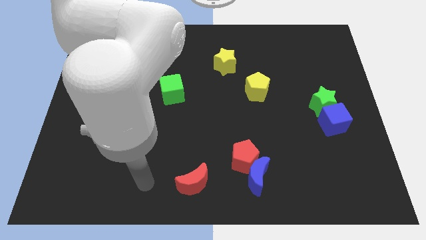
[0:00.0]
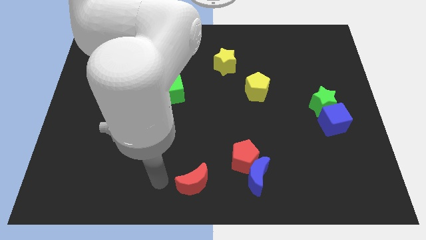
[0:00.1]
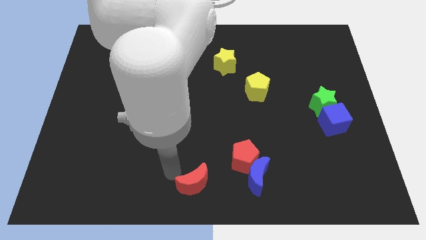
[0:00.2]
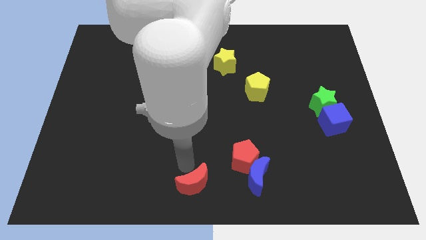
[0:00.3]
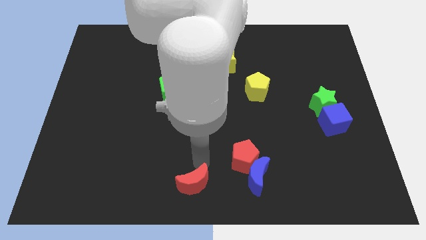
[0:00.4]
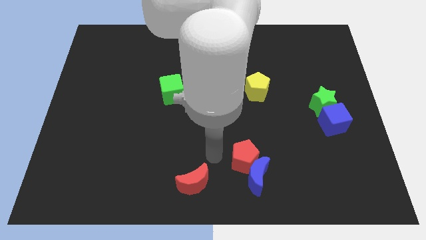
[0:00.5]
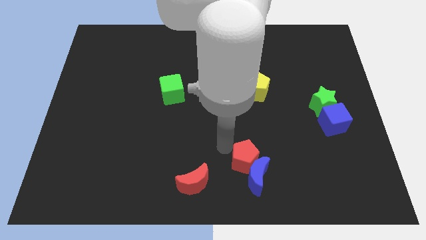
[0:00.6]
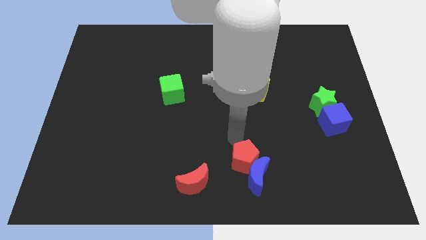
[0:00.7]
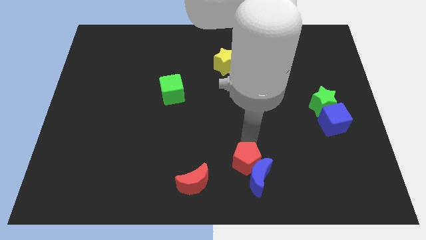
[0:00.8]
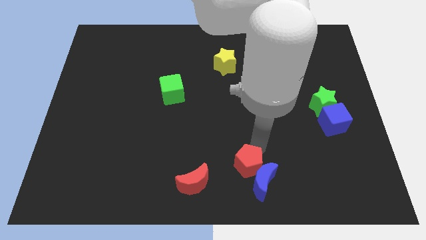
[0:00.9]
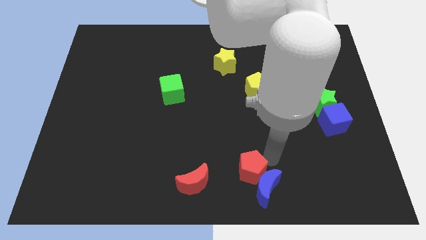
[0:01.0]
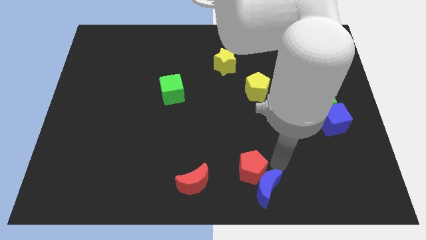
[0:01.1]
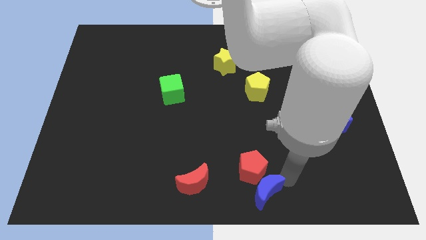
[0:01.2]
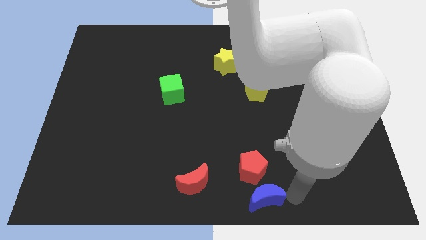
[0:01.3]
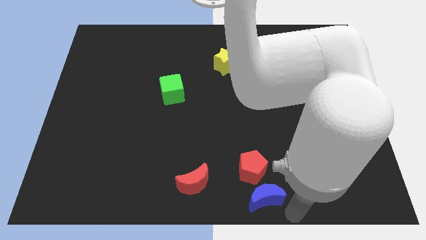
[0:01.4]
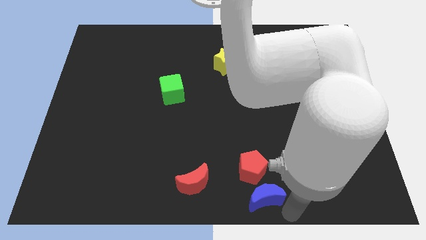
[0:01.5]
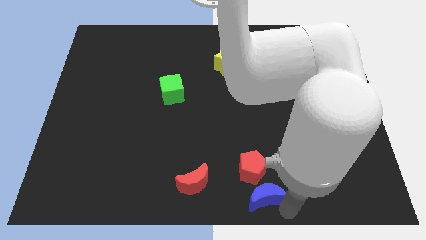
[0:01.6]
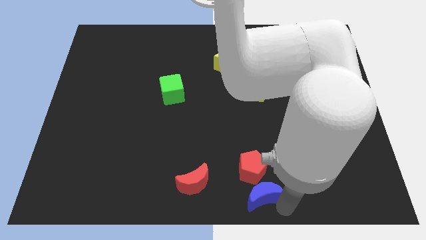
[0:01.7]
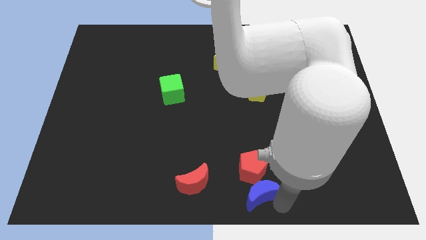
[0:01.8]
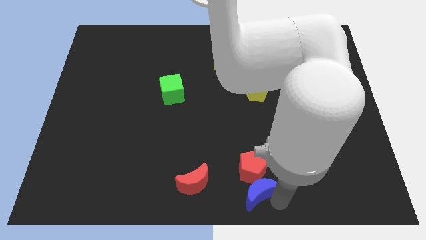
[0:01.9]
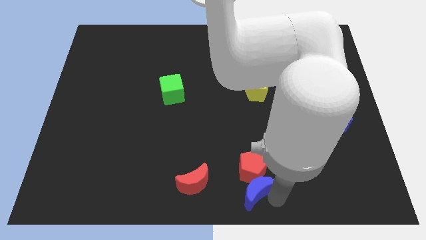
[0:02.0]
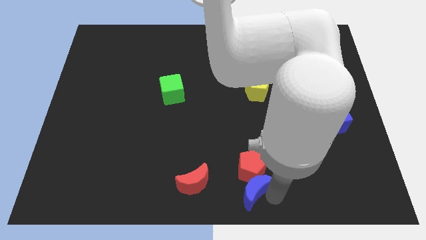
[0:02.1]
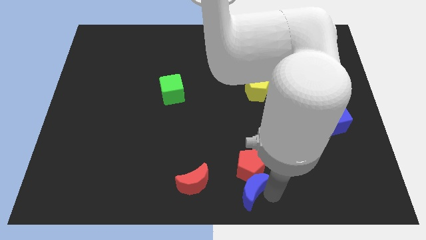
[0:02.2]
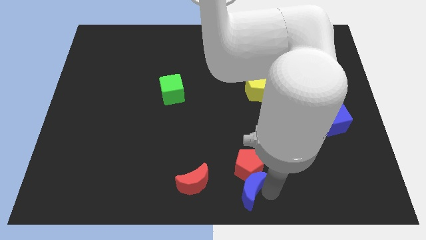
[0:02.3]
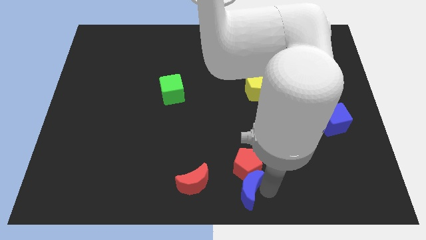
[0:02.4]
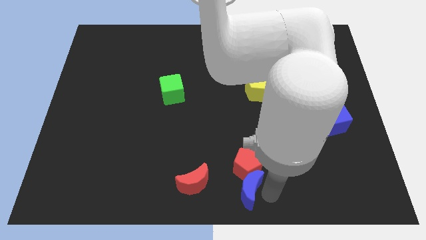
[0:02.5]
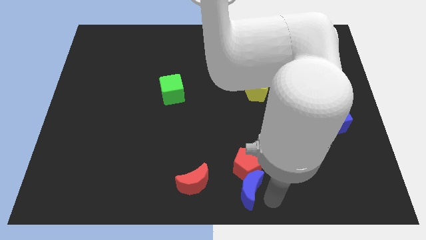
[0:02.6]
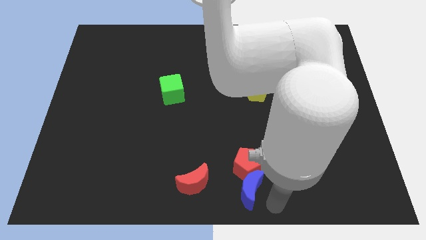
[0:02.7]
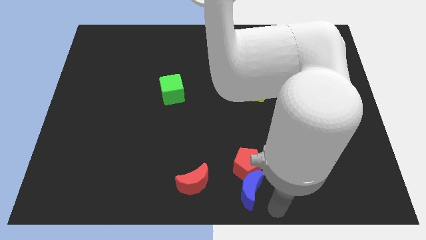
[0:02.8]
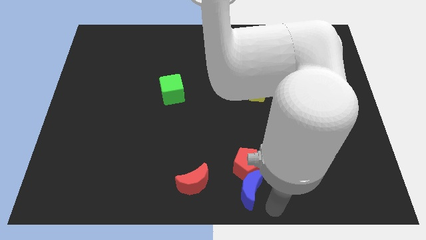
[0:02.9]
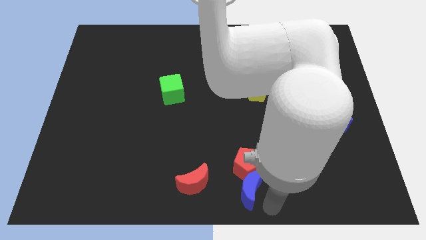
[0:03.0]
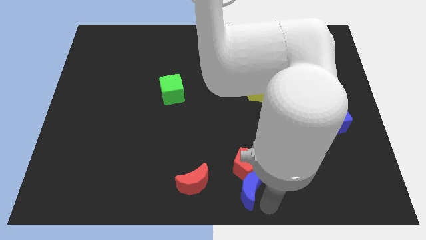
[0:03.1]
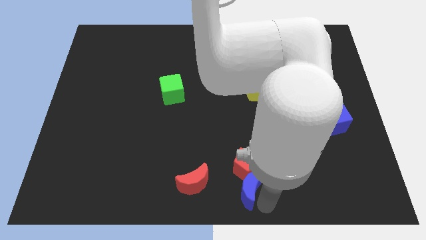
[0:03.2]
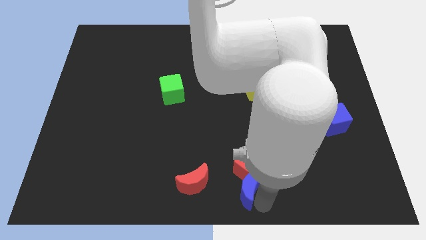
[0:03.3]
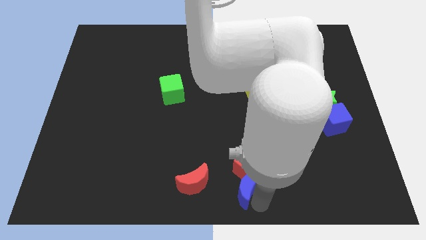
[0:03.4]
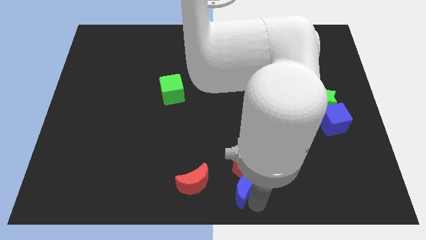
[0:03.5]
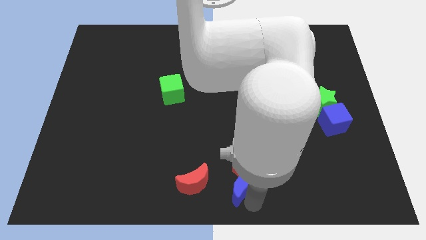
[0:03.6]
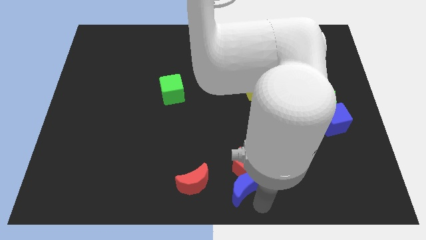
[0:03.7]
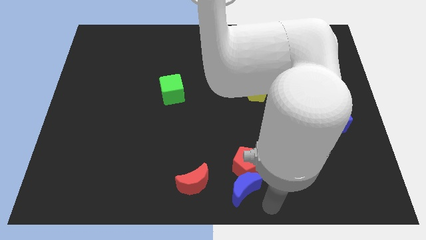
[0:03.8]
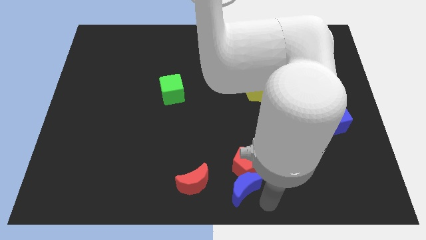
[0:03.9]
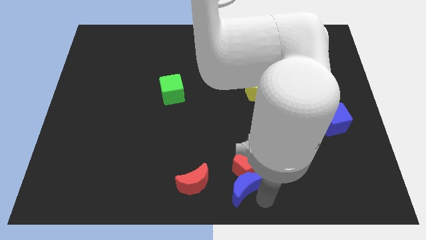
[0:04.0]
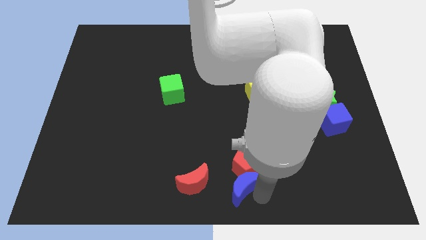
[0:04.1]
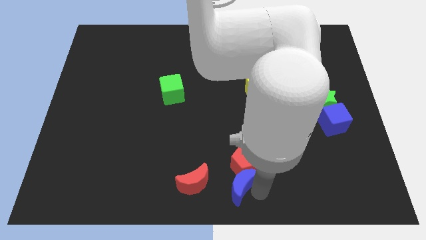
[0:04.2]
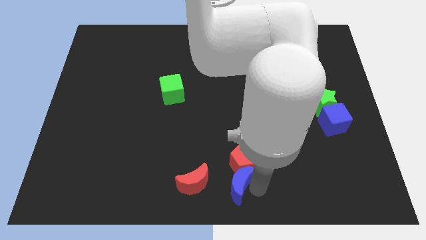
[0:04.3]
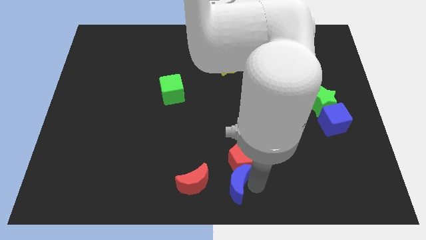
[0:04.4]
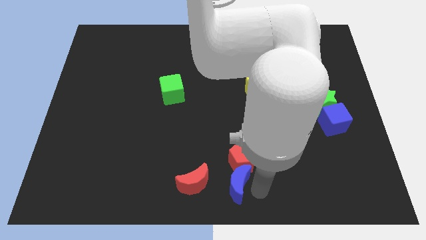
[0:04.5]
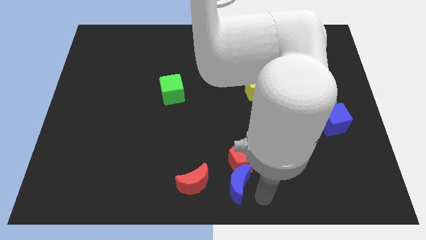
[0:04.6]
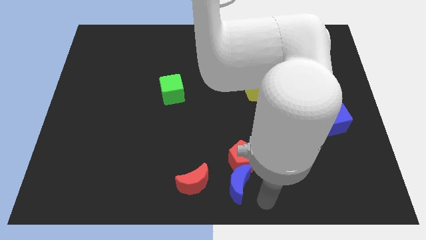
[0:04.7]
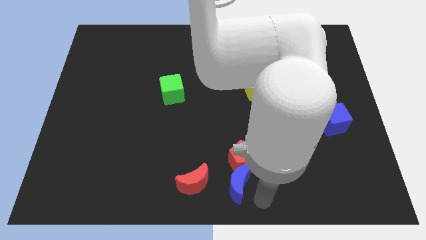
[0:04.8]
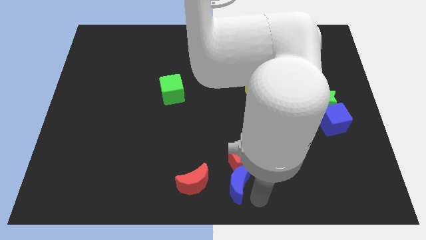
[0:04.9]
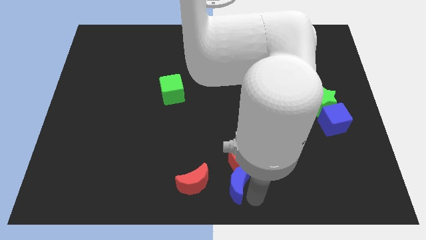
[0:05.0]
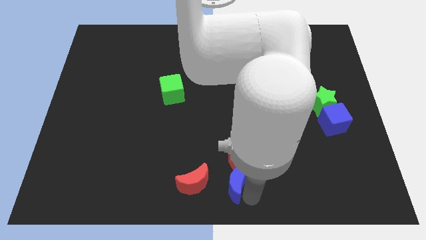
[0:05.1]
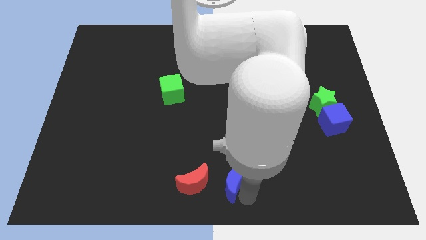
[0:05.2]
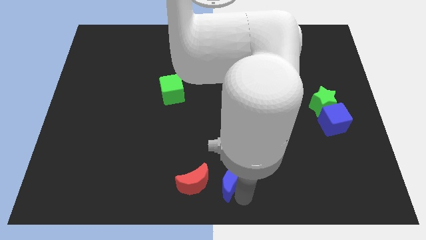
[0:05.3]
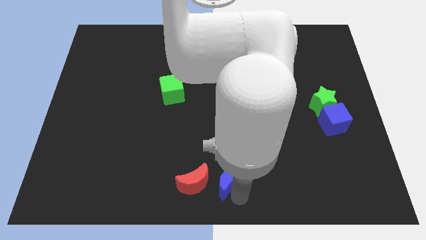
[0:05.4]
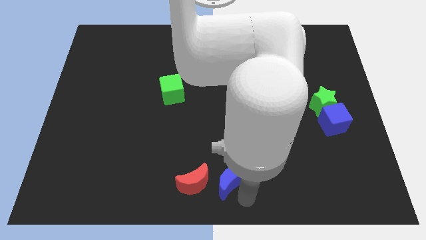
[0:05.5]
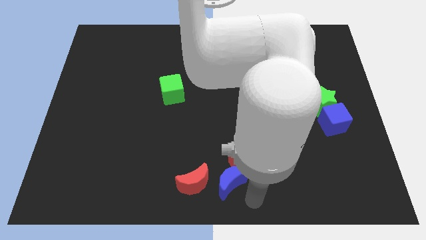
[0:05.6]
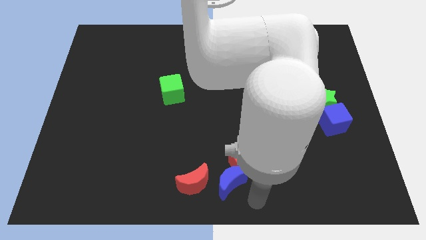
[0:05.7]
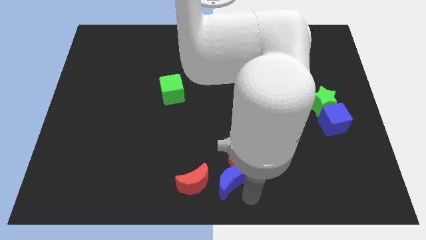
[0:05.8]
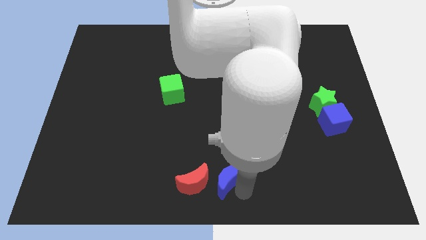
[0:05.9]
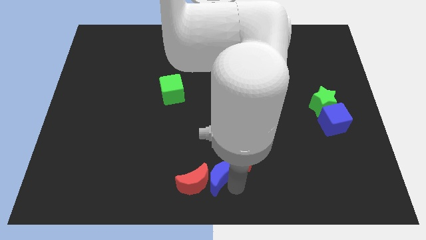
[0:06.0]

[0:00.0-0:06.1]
slightly push the blue moon left

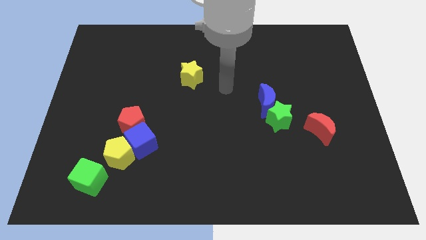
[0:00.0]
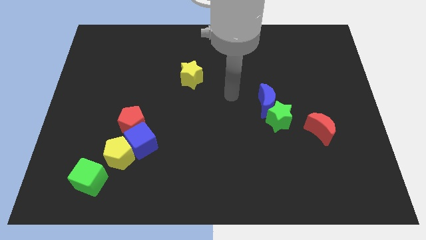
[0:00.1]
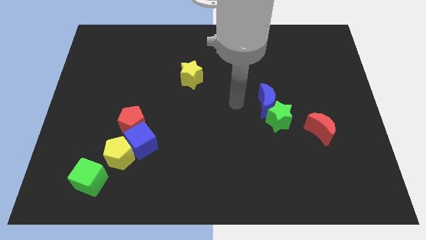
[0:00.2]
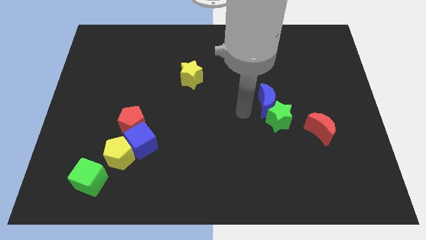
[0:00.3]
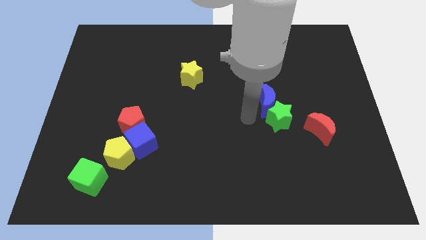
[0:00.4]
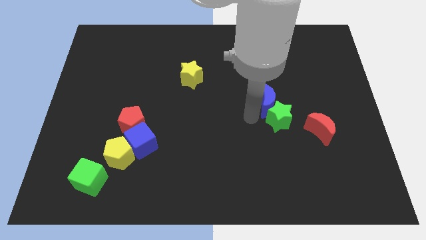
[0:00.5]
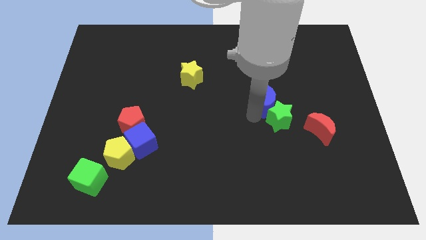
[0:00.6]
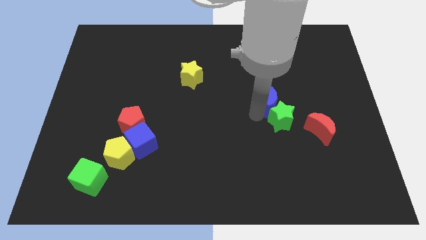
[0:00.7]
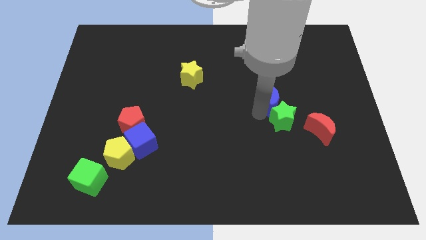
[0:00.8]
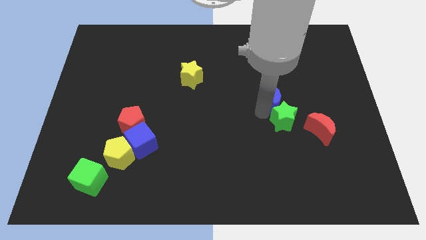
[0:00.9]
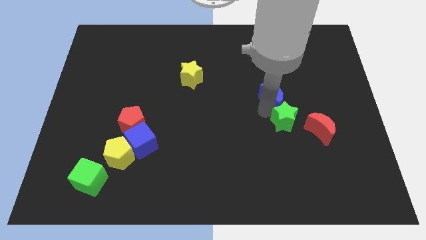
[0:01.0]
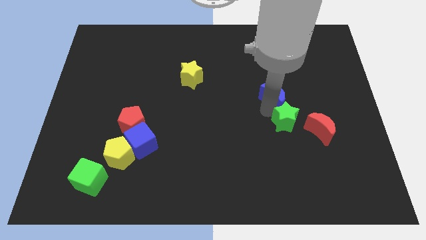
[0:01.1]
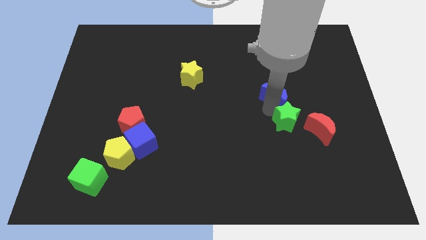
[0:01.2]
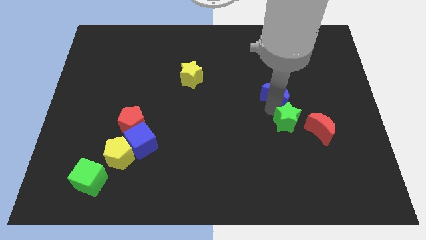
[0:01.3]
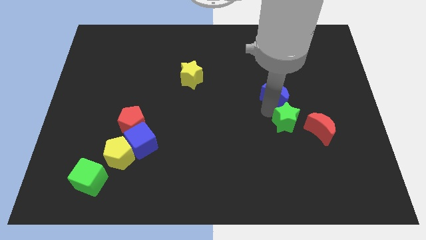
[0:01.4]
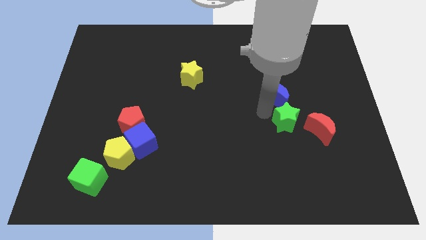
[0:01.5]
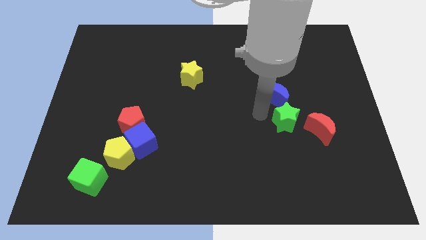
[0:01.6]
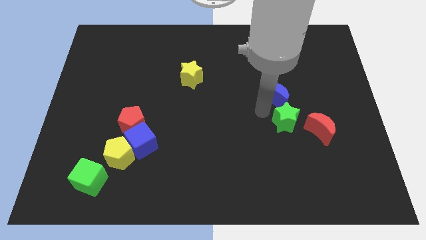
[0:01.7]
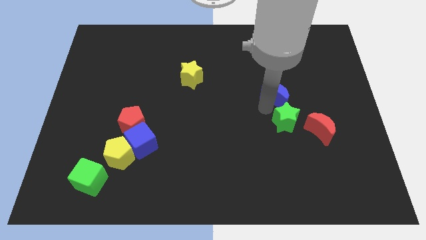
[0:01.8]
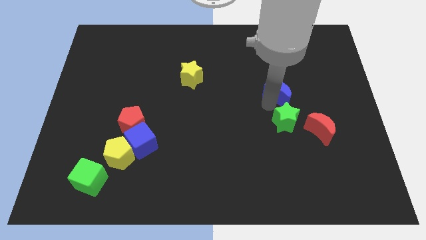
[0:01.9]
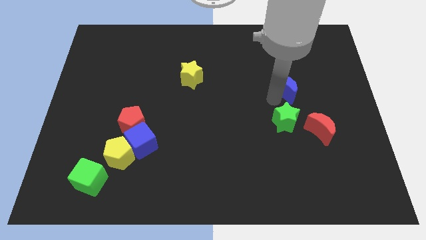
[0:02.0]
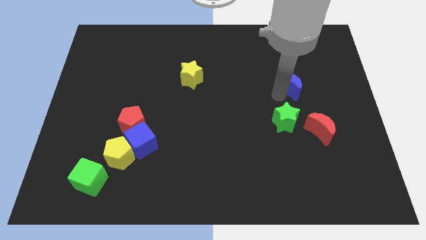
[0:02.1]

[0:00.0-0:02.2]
move the blue moon somewhat up and then to the right
